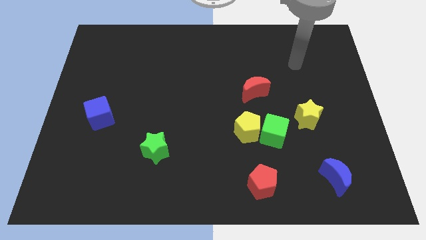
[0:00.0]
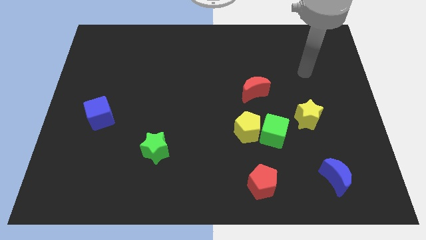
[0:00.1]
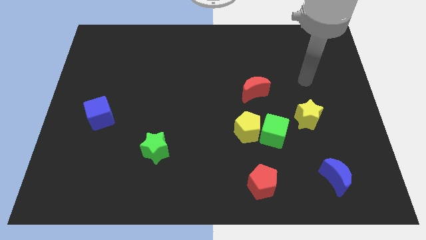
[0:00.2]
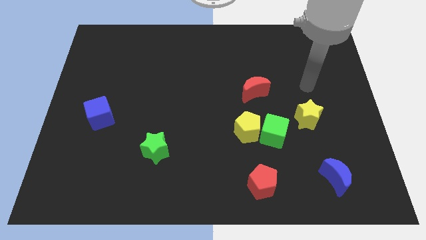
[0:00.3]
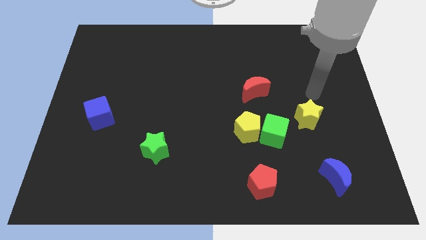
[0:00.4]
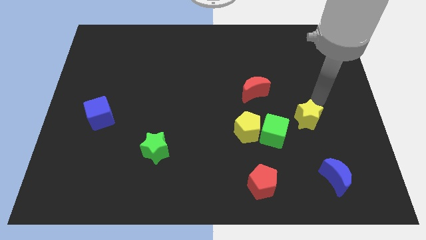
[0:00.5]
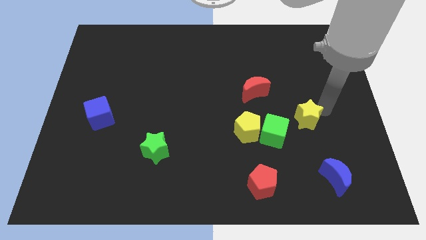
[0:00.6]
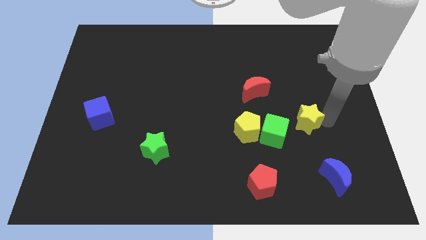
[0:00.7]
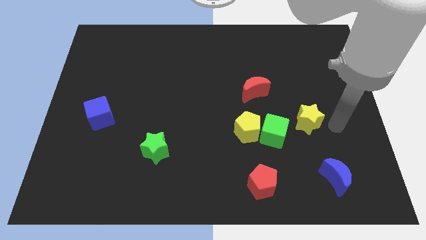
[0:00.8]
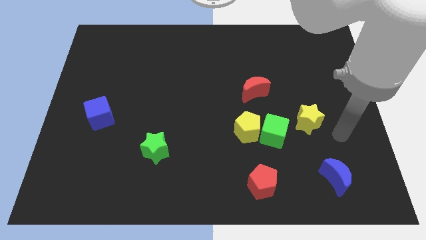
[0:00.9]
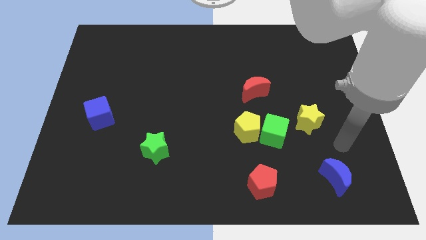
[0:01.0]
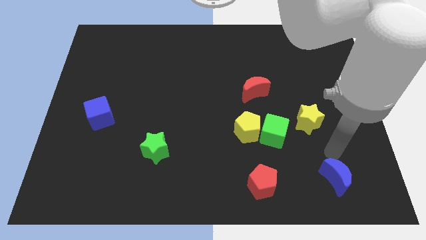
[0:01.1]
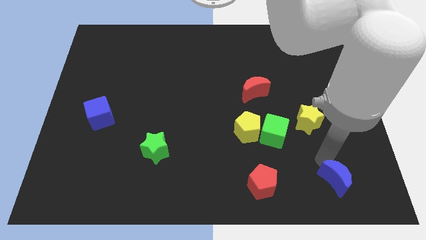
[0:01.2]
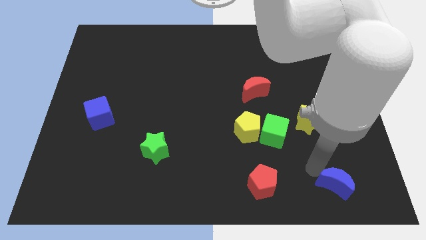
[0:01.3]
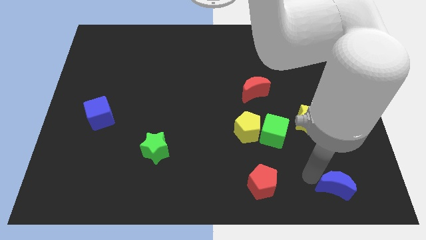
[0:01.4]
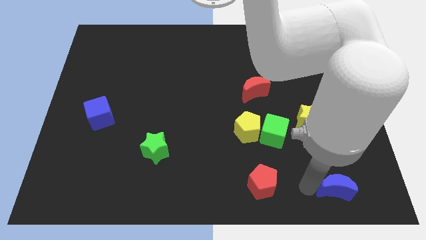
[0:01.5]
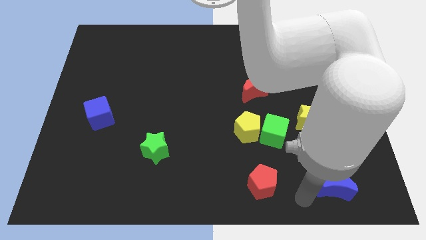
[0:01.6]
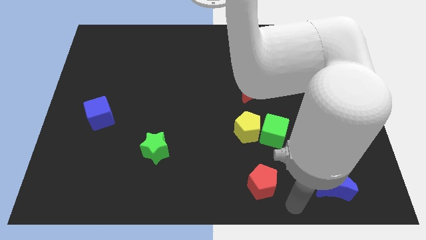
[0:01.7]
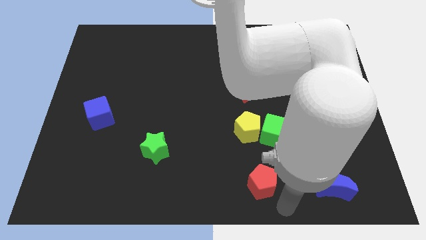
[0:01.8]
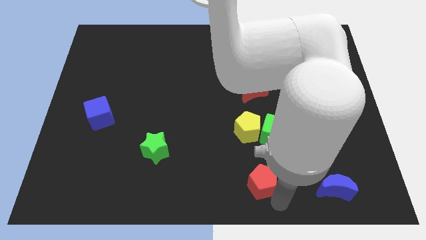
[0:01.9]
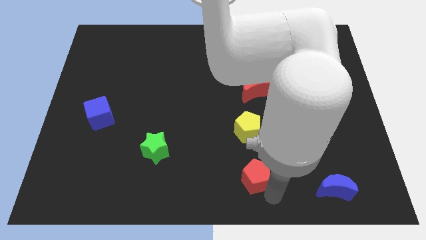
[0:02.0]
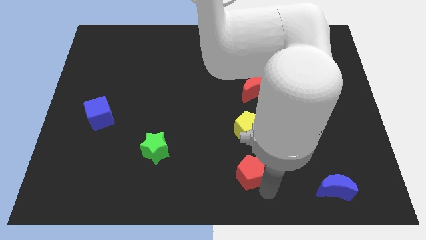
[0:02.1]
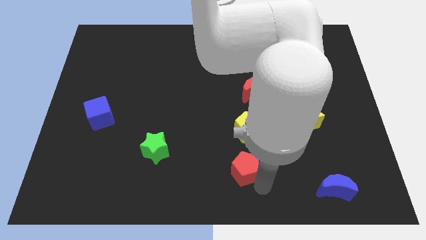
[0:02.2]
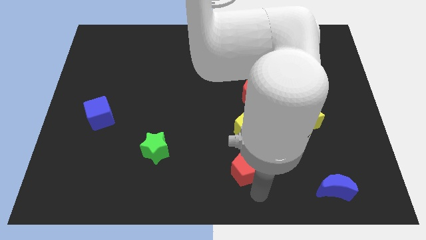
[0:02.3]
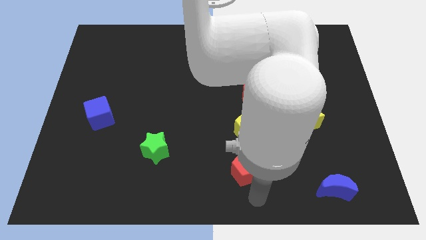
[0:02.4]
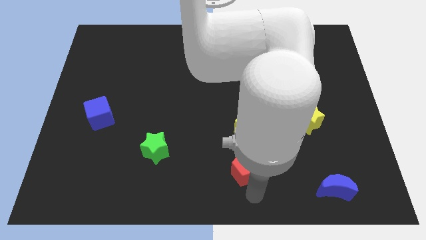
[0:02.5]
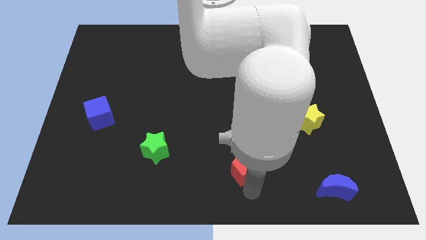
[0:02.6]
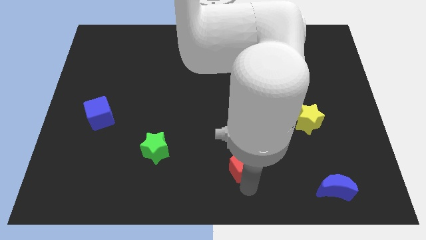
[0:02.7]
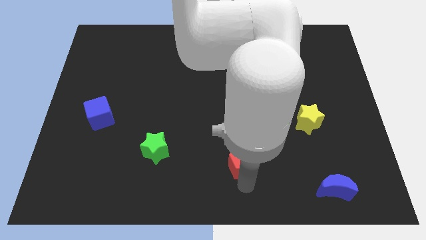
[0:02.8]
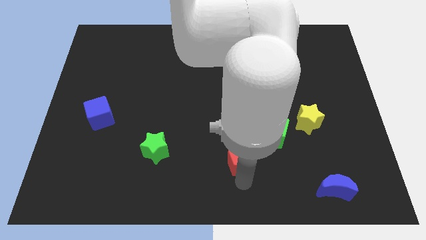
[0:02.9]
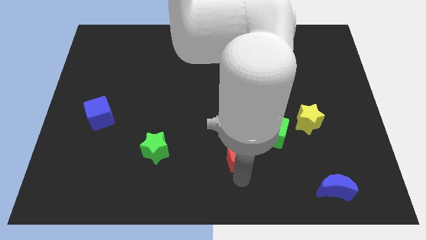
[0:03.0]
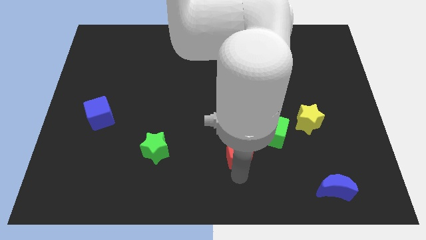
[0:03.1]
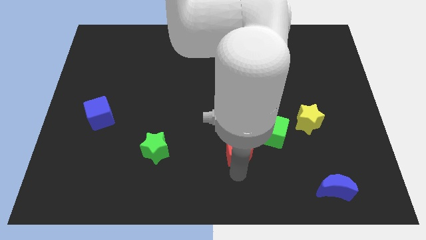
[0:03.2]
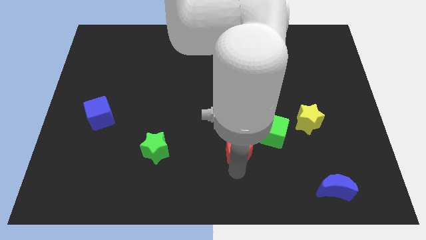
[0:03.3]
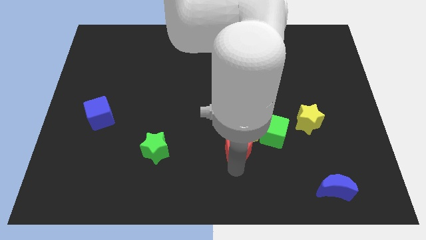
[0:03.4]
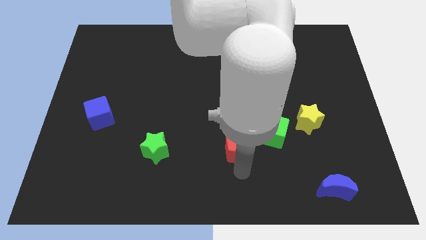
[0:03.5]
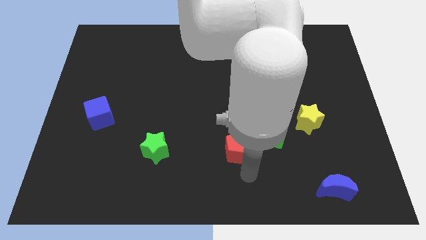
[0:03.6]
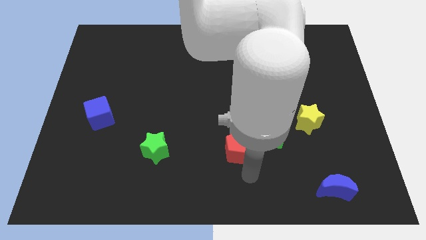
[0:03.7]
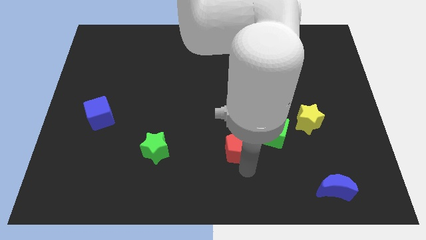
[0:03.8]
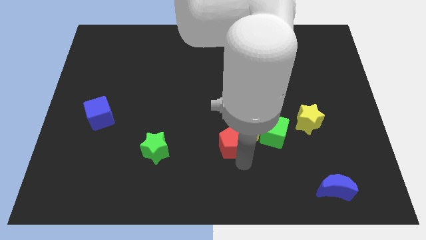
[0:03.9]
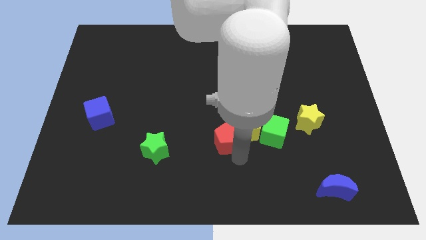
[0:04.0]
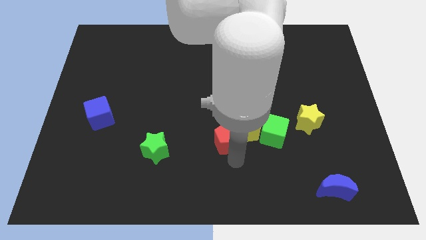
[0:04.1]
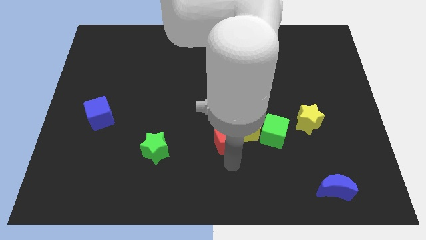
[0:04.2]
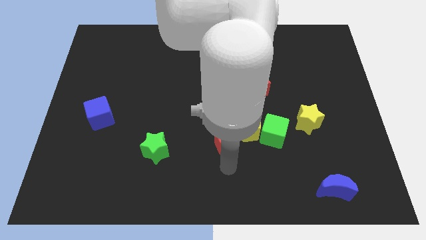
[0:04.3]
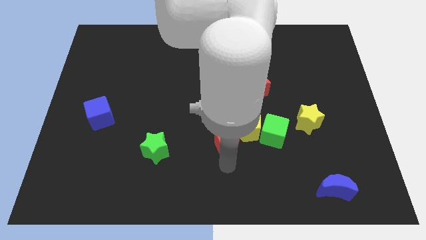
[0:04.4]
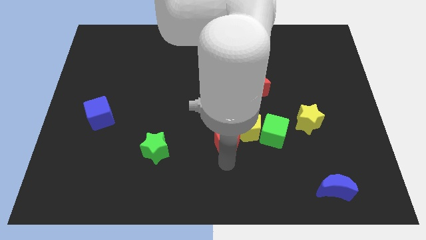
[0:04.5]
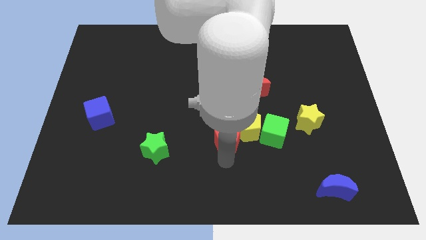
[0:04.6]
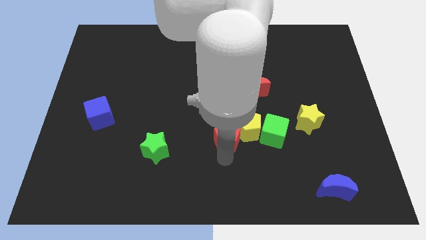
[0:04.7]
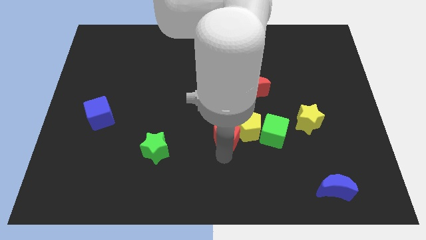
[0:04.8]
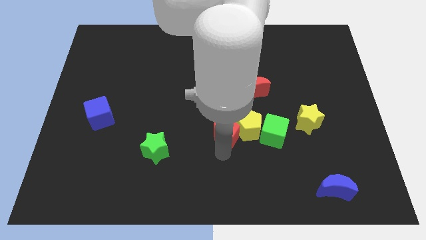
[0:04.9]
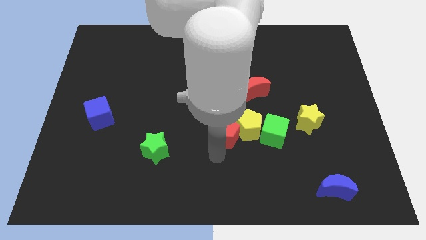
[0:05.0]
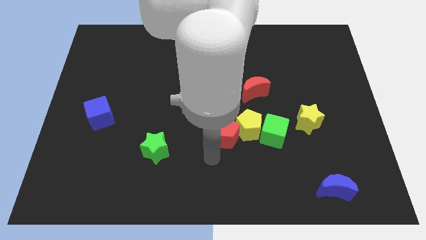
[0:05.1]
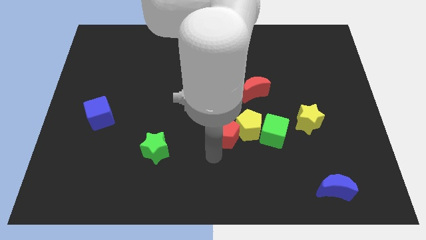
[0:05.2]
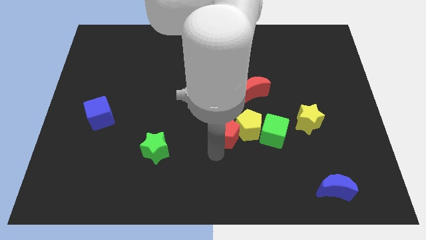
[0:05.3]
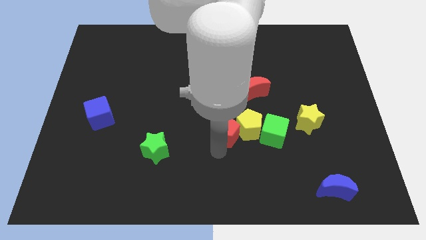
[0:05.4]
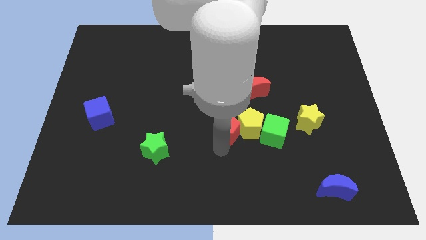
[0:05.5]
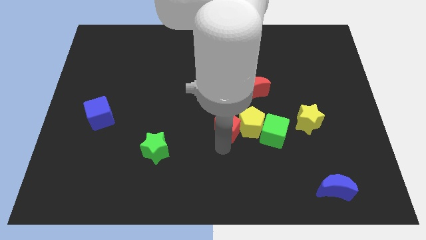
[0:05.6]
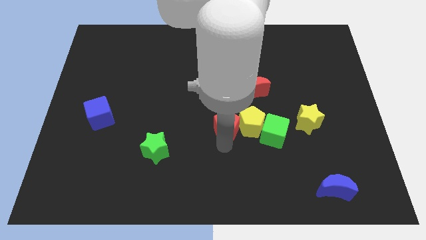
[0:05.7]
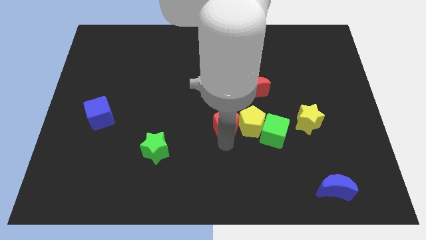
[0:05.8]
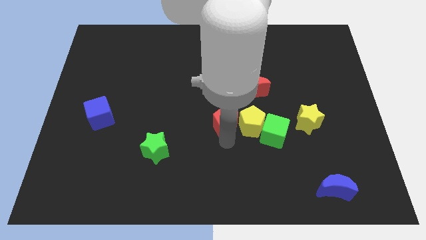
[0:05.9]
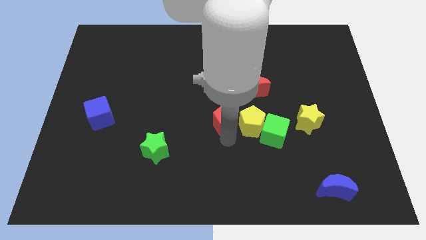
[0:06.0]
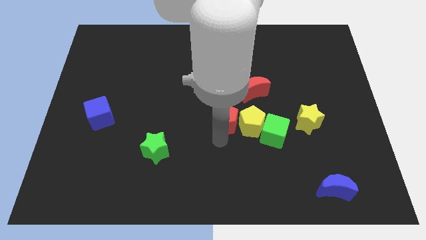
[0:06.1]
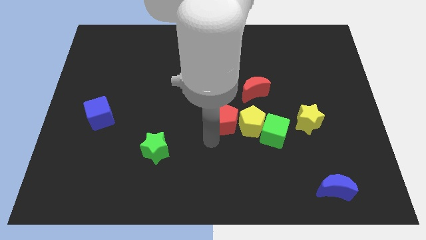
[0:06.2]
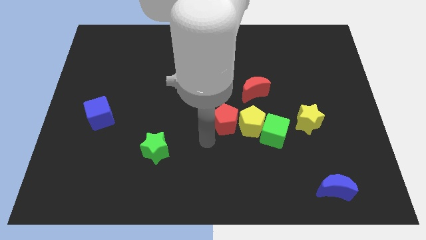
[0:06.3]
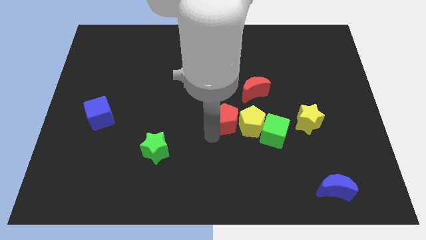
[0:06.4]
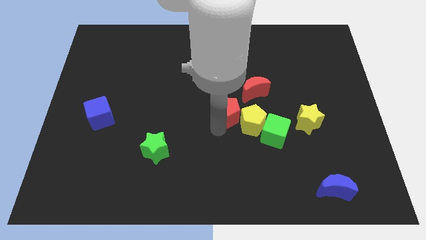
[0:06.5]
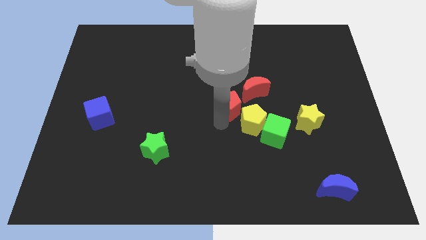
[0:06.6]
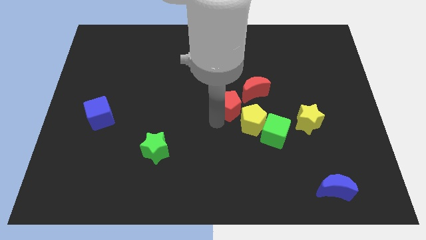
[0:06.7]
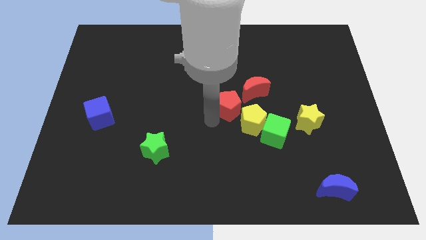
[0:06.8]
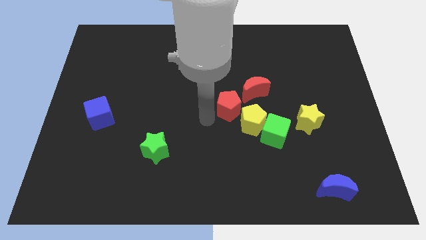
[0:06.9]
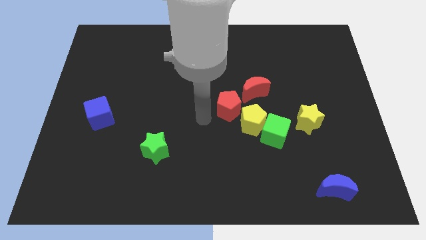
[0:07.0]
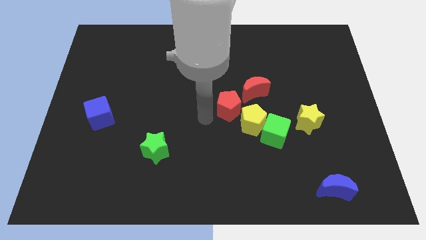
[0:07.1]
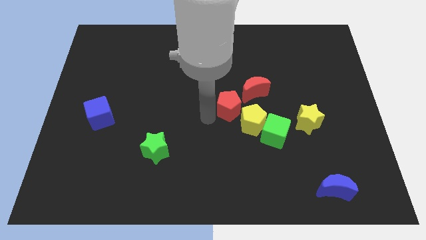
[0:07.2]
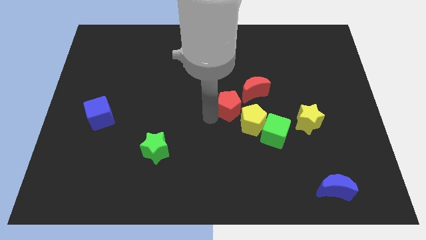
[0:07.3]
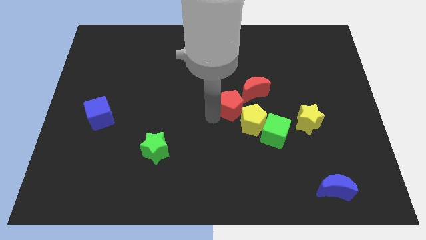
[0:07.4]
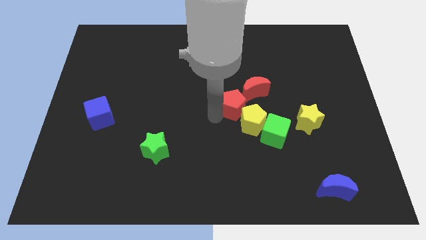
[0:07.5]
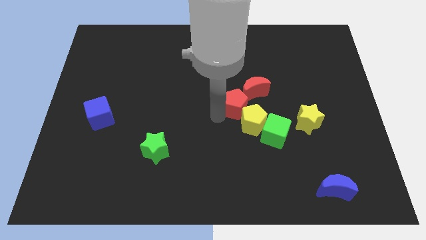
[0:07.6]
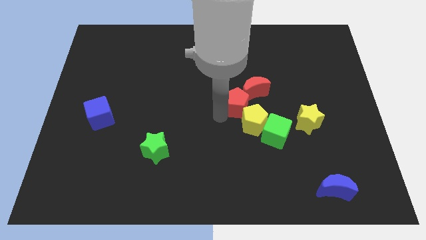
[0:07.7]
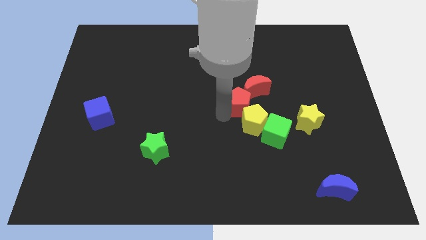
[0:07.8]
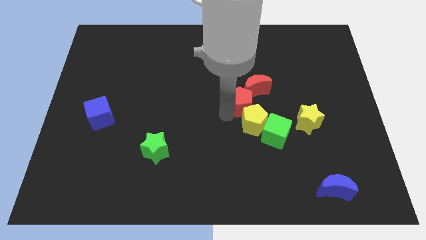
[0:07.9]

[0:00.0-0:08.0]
slide the red pentagon close to the red moon
